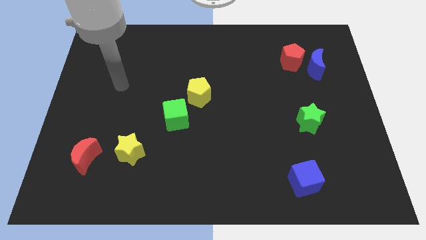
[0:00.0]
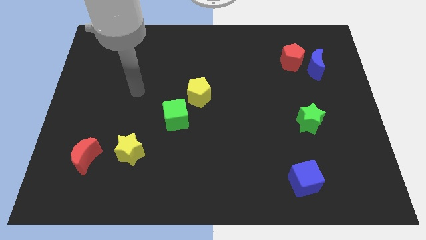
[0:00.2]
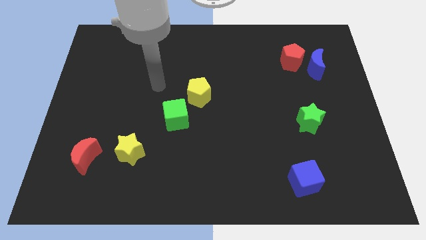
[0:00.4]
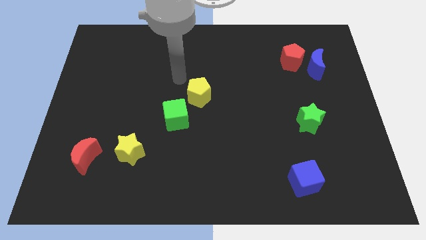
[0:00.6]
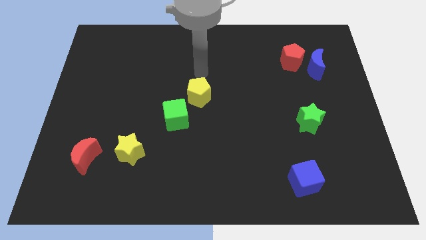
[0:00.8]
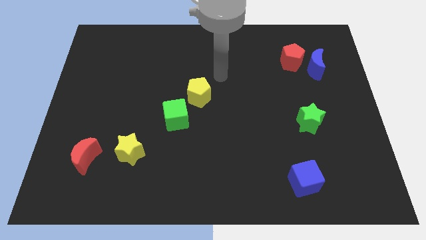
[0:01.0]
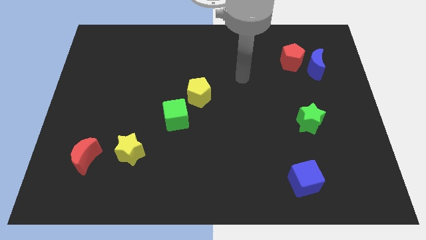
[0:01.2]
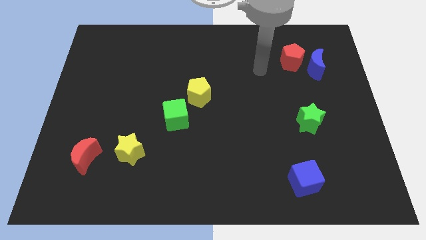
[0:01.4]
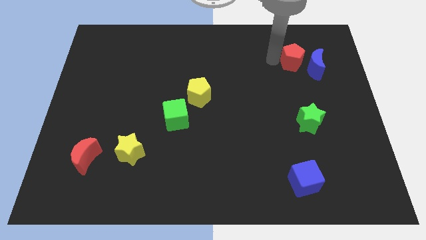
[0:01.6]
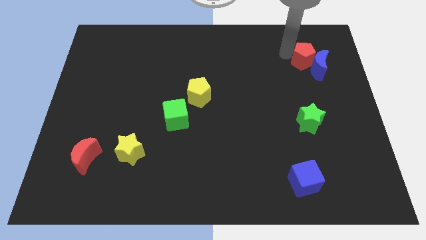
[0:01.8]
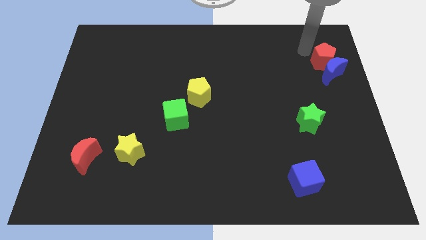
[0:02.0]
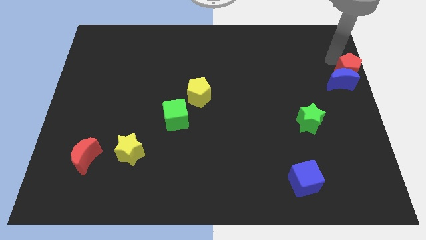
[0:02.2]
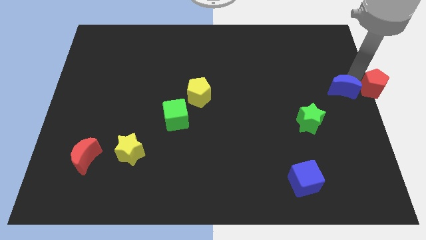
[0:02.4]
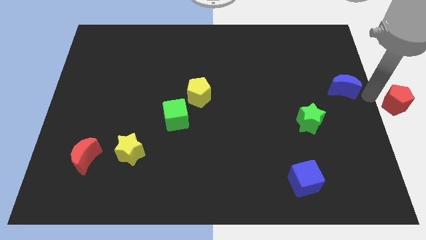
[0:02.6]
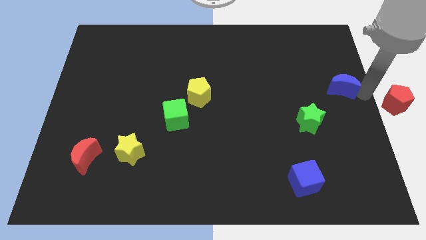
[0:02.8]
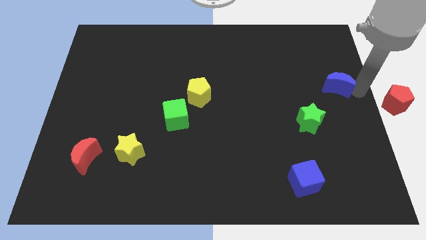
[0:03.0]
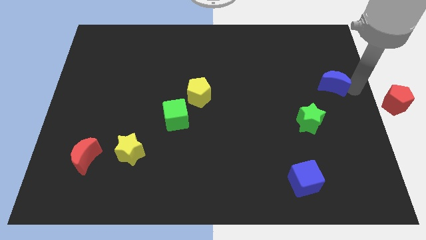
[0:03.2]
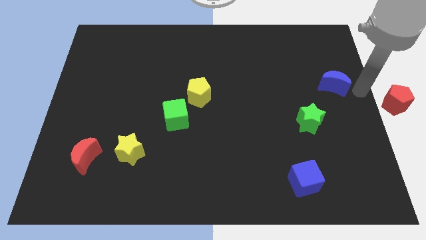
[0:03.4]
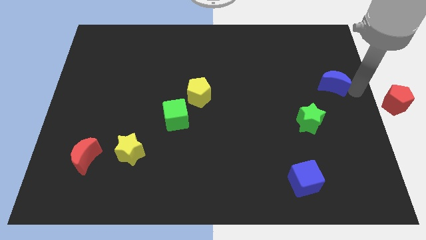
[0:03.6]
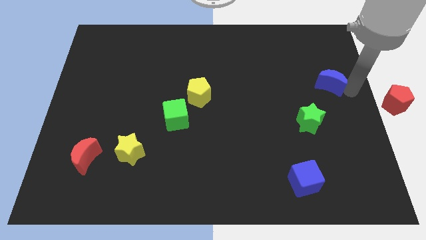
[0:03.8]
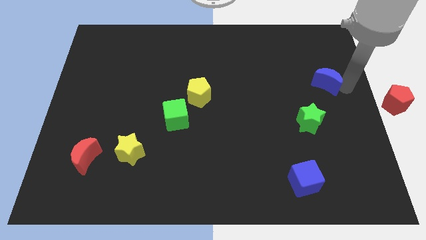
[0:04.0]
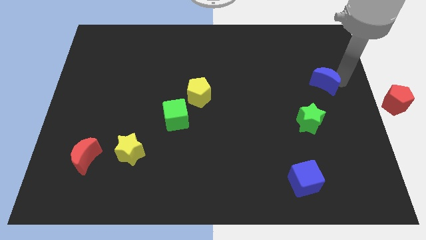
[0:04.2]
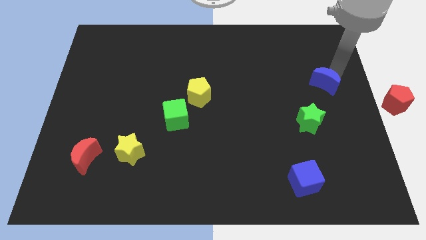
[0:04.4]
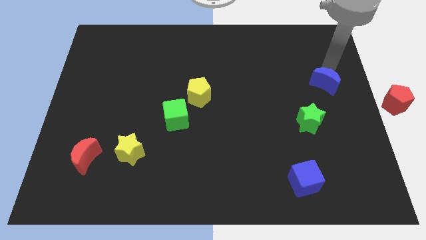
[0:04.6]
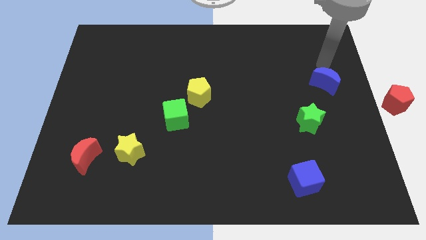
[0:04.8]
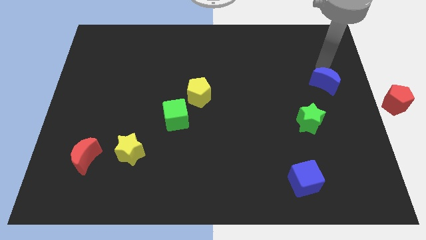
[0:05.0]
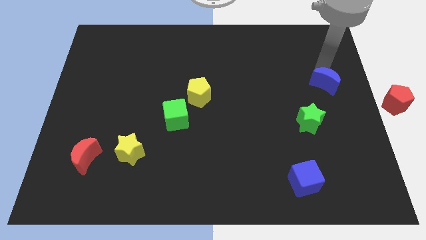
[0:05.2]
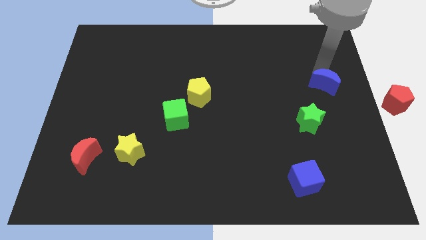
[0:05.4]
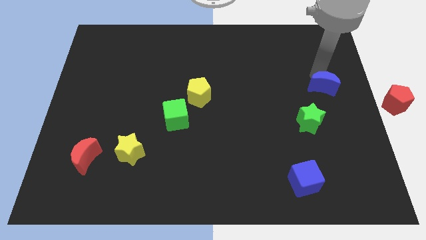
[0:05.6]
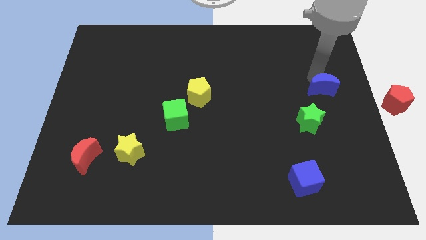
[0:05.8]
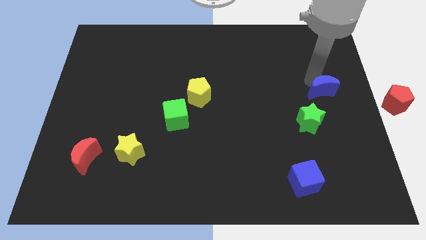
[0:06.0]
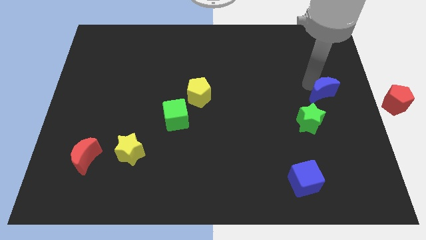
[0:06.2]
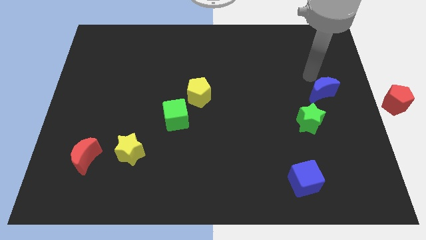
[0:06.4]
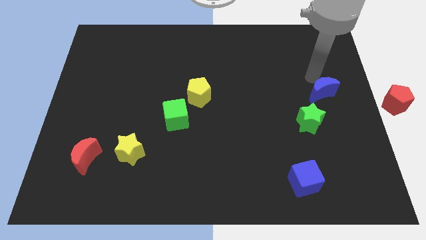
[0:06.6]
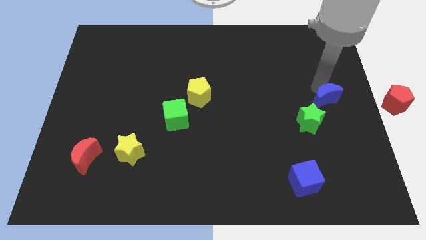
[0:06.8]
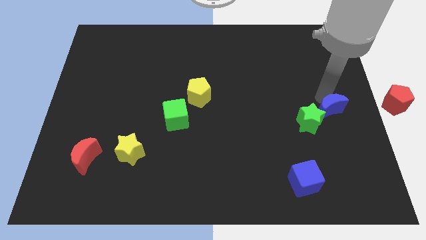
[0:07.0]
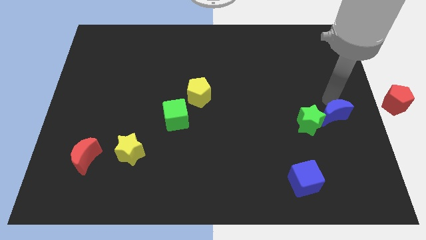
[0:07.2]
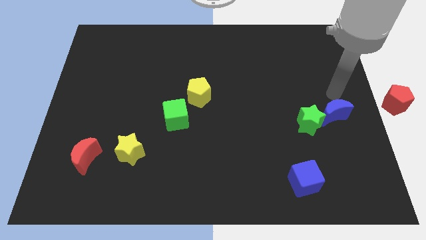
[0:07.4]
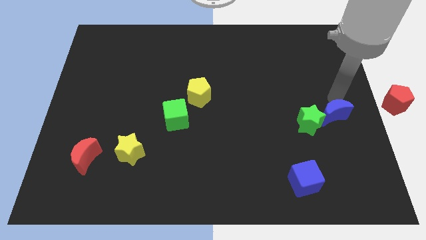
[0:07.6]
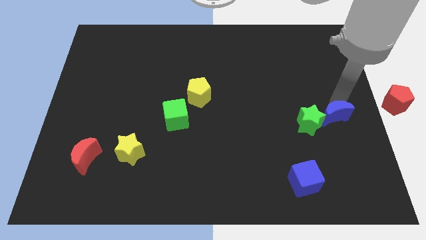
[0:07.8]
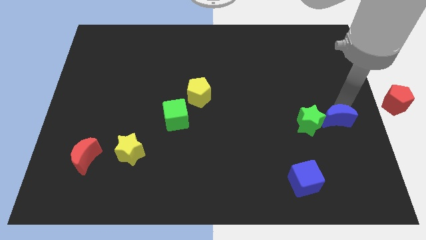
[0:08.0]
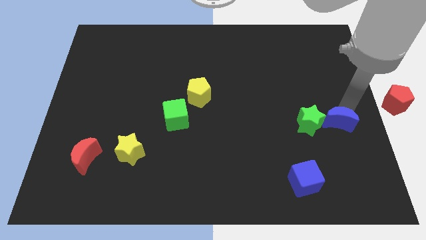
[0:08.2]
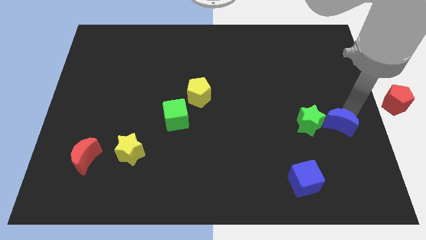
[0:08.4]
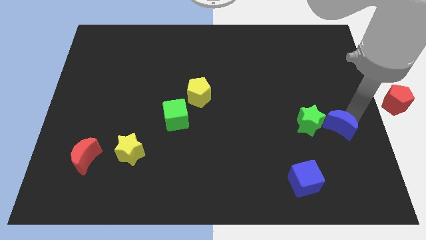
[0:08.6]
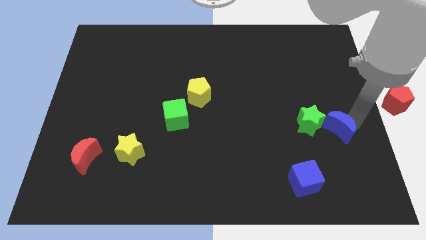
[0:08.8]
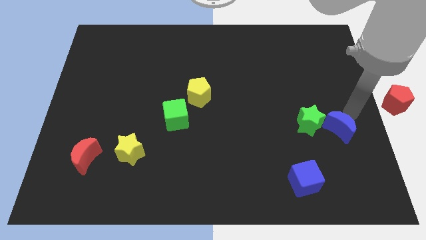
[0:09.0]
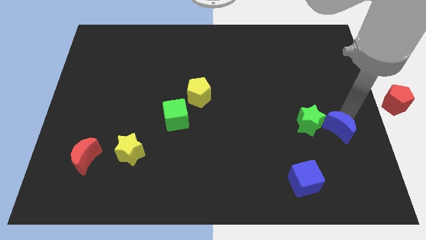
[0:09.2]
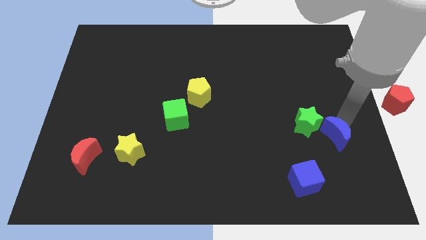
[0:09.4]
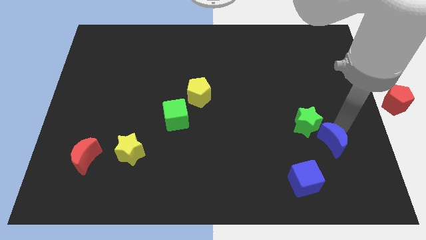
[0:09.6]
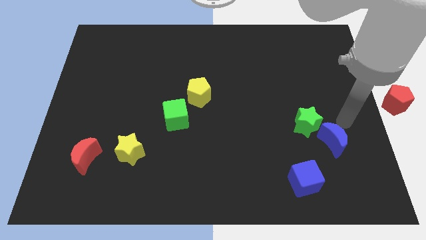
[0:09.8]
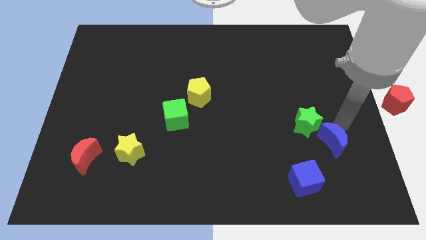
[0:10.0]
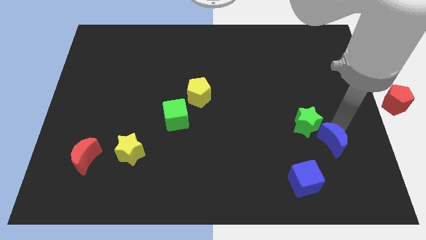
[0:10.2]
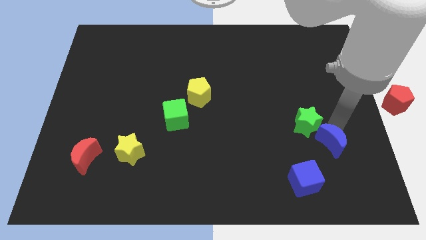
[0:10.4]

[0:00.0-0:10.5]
move the blue moon below the green star

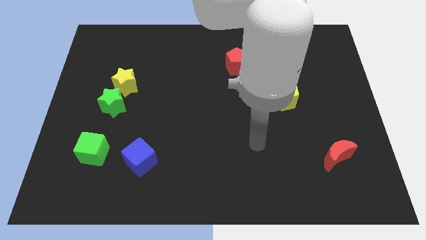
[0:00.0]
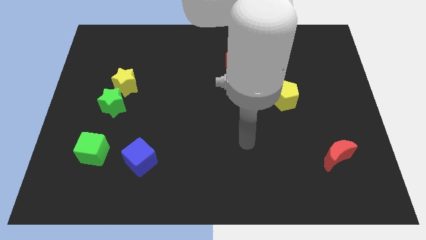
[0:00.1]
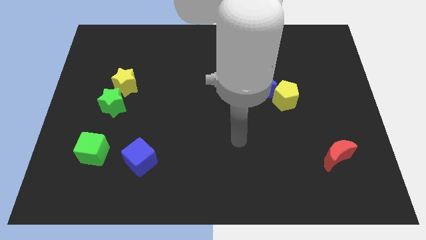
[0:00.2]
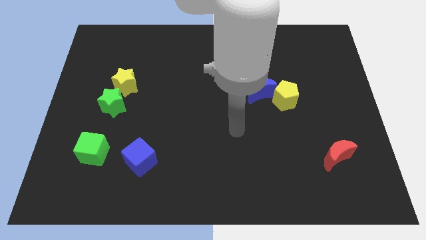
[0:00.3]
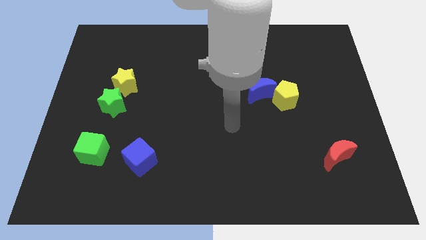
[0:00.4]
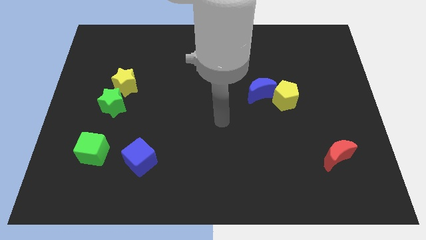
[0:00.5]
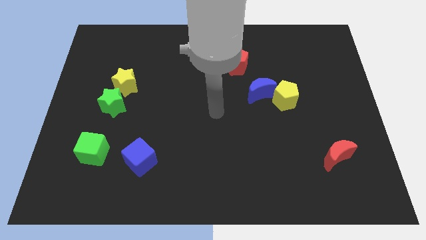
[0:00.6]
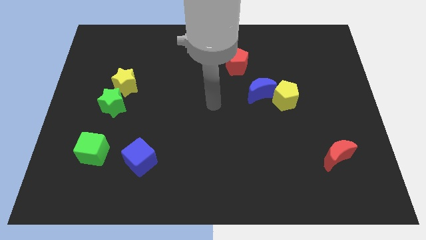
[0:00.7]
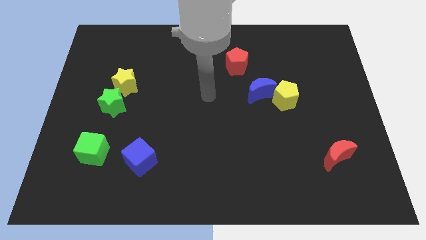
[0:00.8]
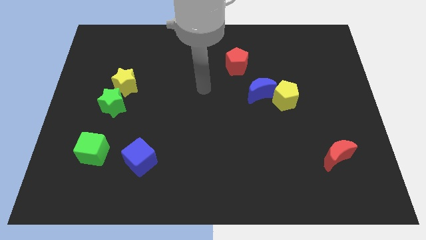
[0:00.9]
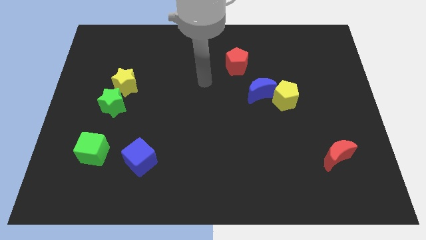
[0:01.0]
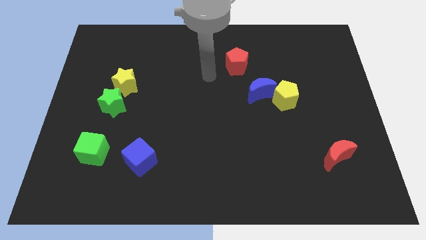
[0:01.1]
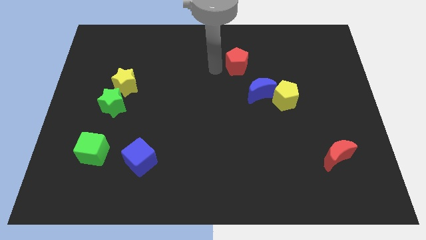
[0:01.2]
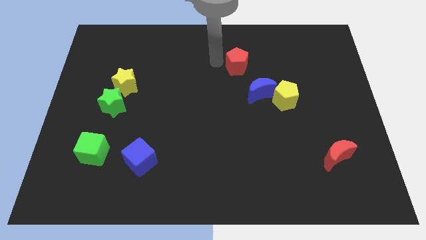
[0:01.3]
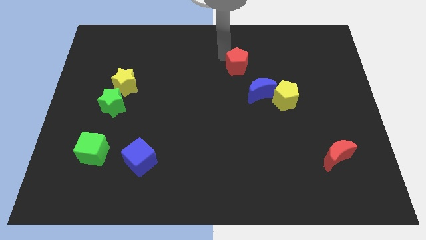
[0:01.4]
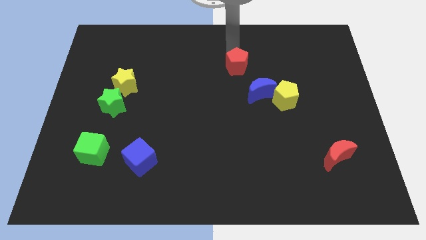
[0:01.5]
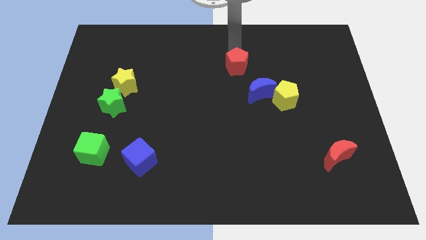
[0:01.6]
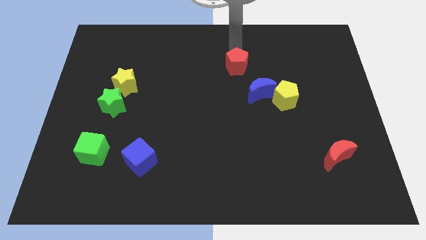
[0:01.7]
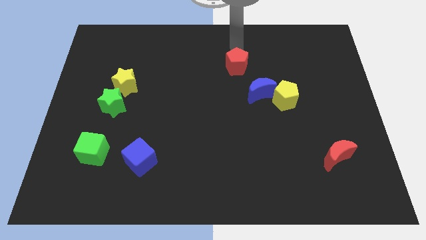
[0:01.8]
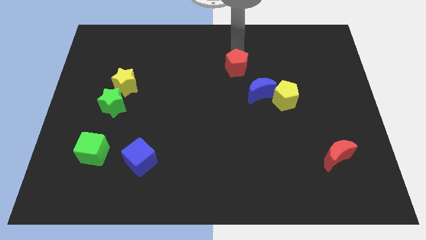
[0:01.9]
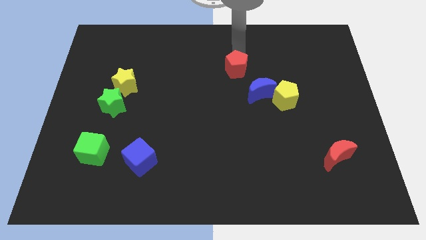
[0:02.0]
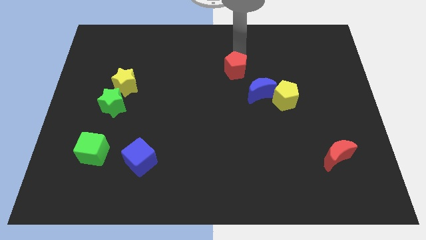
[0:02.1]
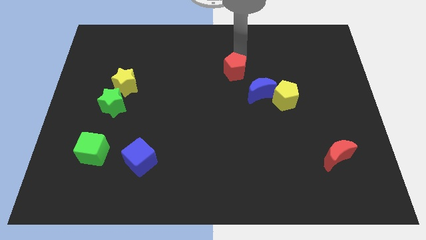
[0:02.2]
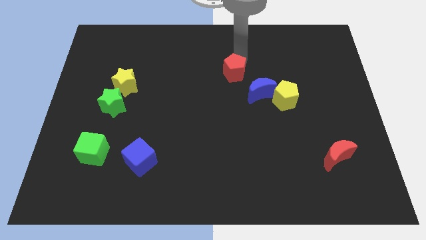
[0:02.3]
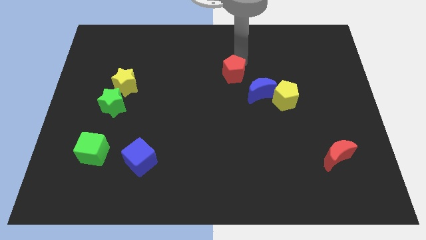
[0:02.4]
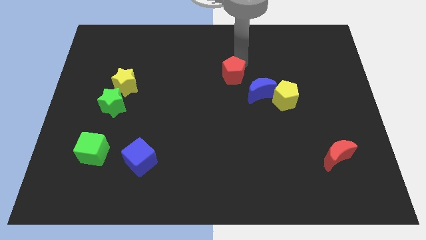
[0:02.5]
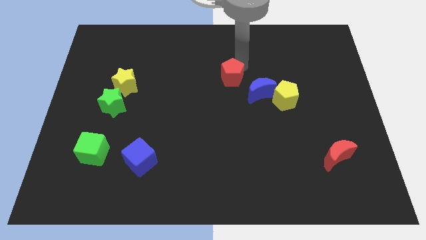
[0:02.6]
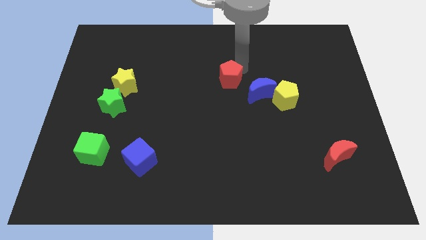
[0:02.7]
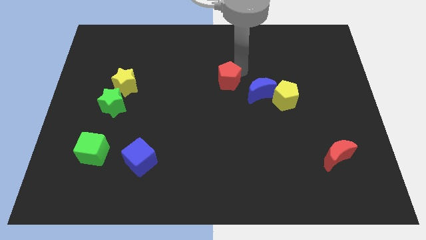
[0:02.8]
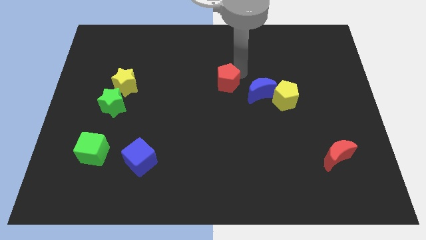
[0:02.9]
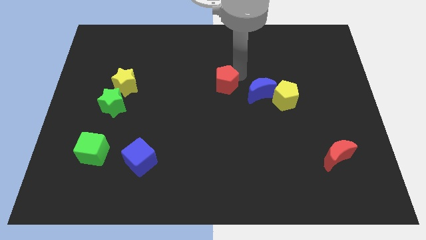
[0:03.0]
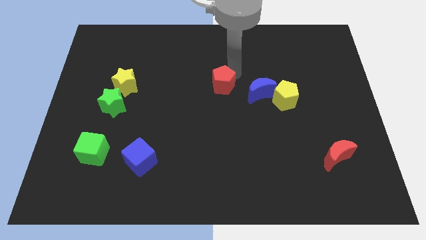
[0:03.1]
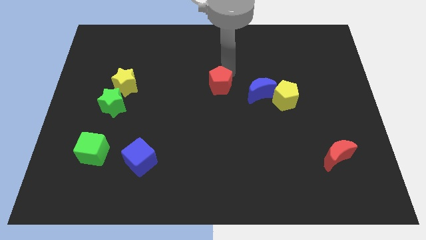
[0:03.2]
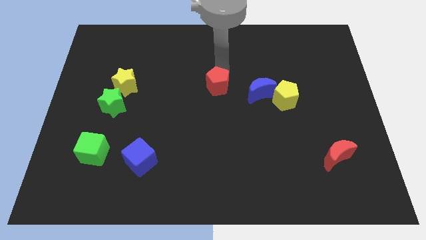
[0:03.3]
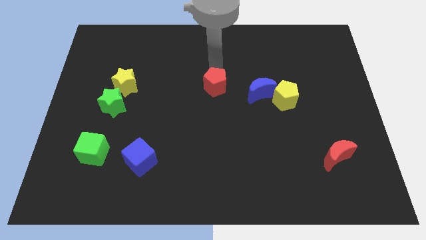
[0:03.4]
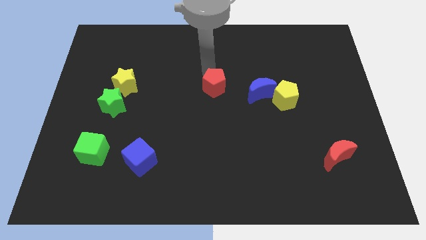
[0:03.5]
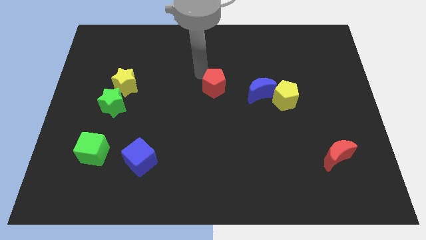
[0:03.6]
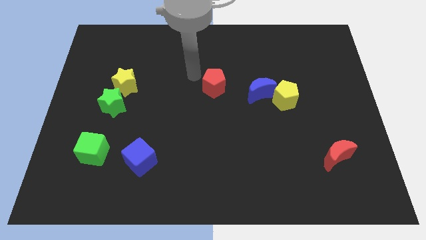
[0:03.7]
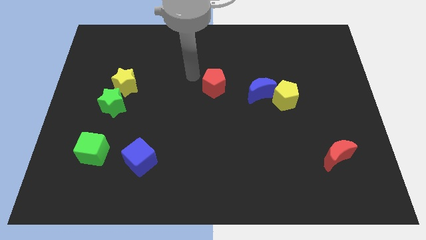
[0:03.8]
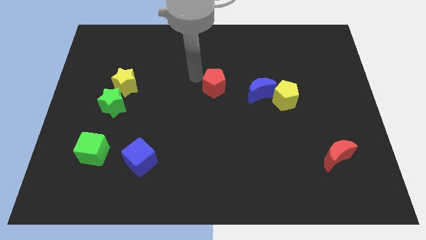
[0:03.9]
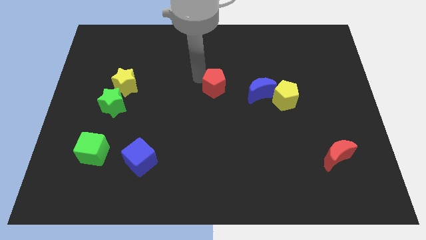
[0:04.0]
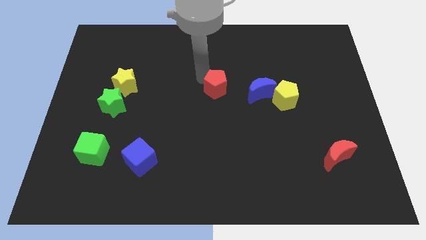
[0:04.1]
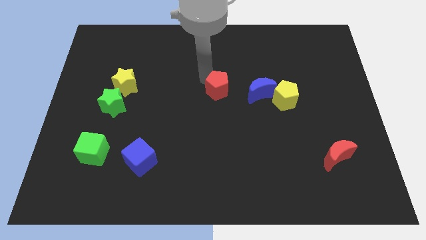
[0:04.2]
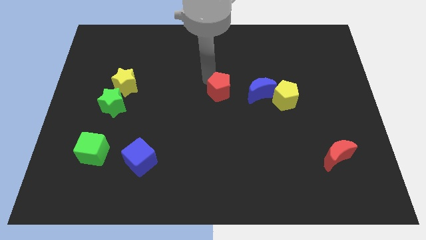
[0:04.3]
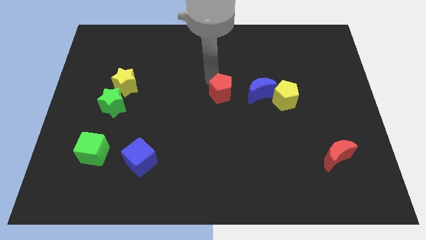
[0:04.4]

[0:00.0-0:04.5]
put the red pentagon left of the yellow pentagon
